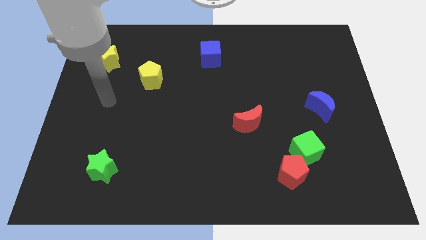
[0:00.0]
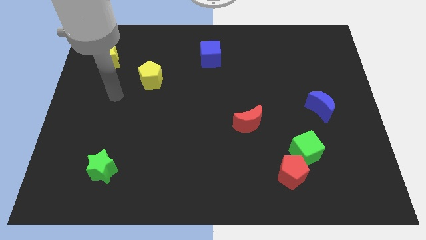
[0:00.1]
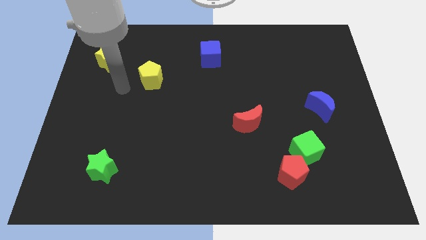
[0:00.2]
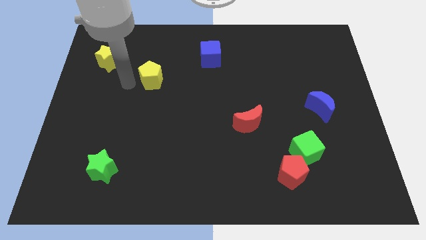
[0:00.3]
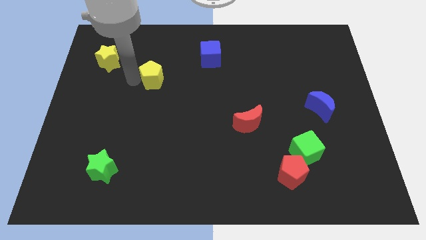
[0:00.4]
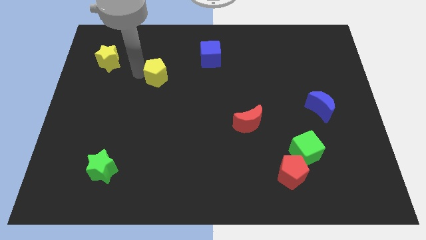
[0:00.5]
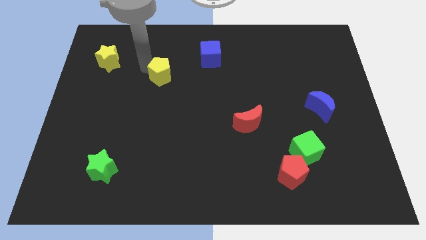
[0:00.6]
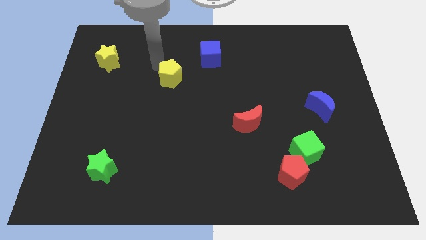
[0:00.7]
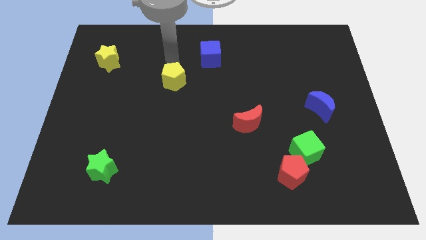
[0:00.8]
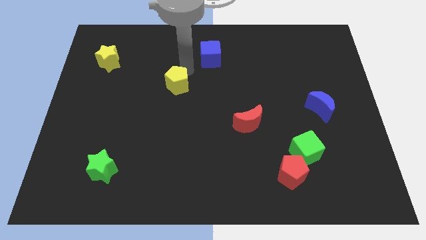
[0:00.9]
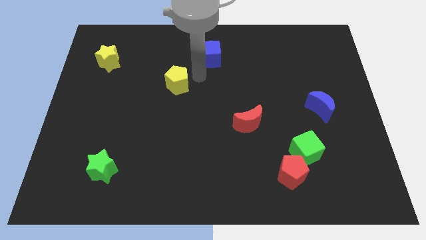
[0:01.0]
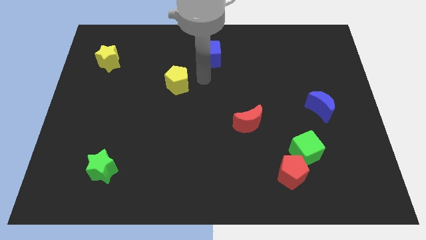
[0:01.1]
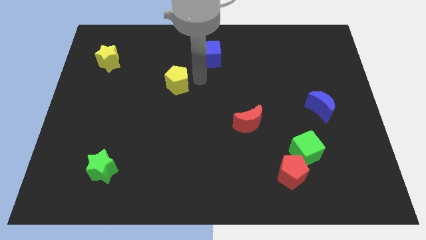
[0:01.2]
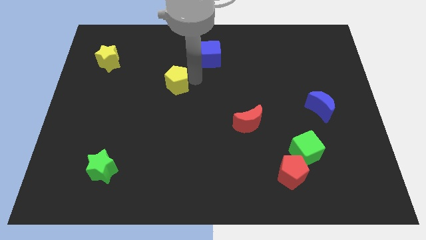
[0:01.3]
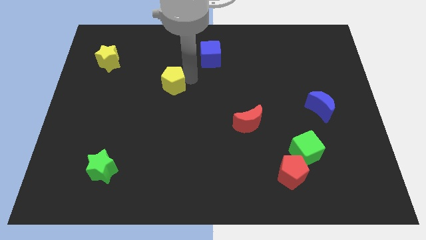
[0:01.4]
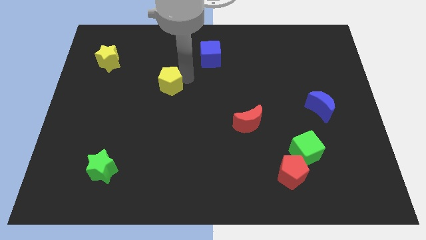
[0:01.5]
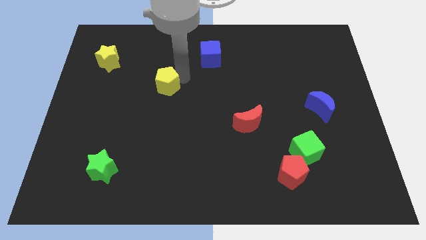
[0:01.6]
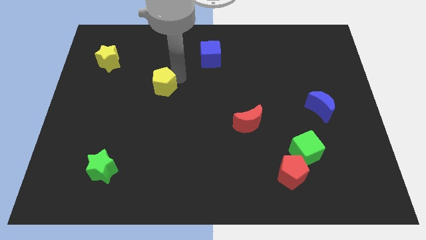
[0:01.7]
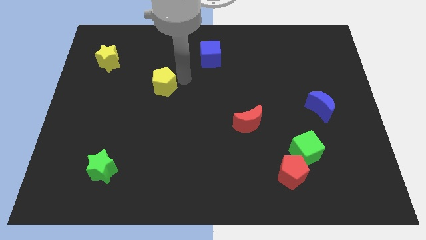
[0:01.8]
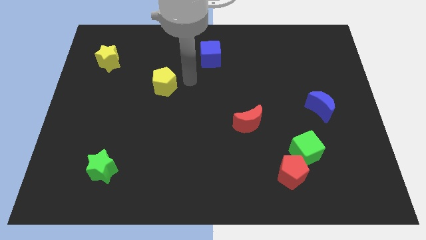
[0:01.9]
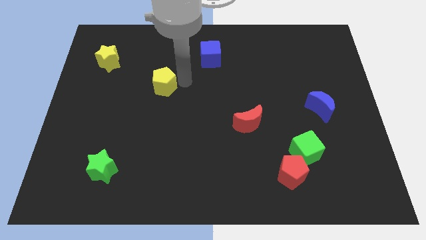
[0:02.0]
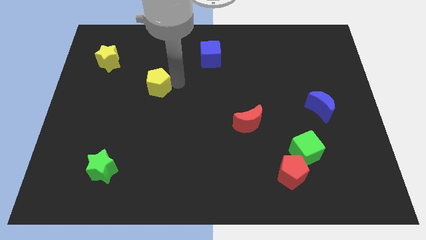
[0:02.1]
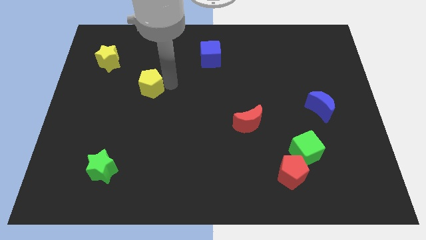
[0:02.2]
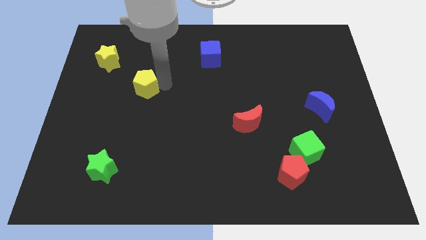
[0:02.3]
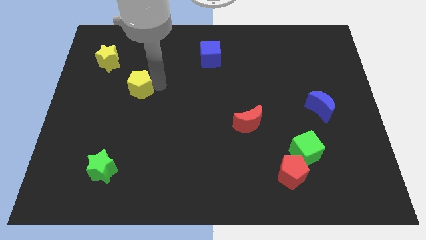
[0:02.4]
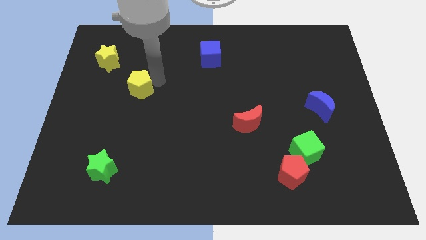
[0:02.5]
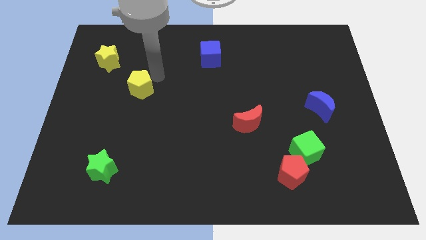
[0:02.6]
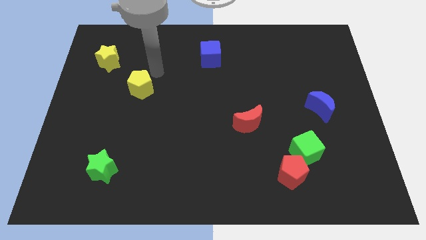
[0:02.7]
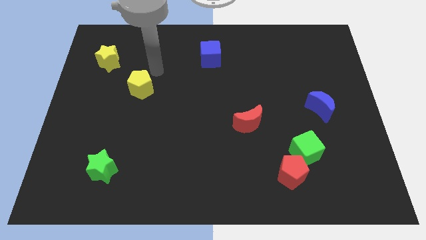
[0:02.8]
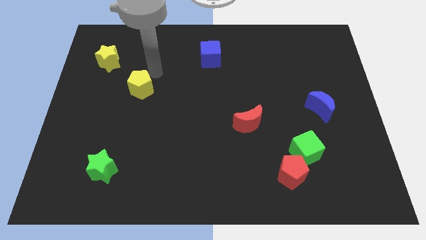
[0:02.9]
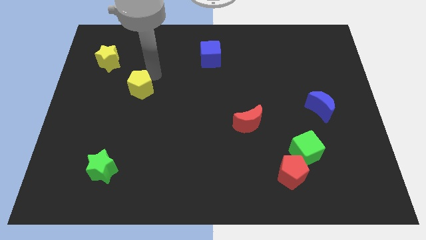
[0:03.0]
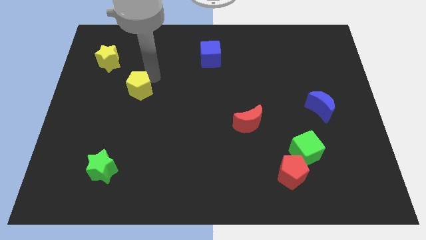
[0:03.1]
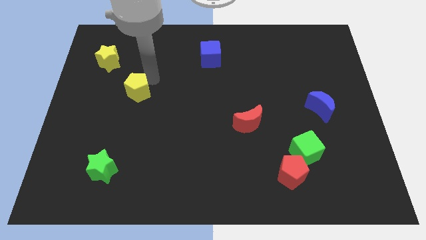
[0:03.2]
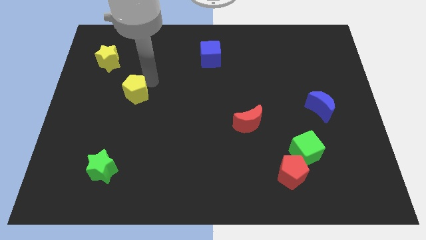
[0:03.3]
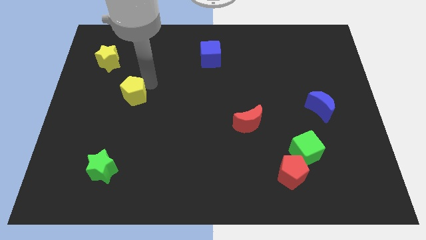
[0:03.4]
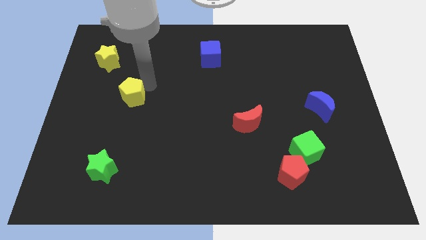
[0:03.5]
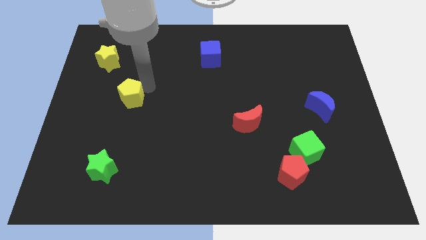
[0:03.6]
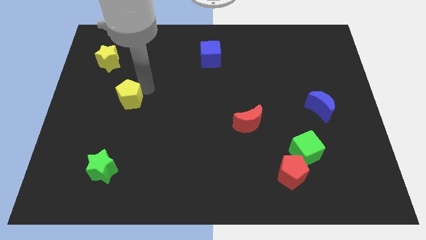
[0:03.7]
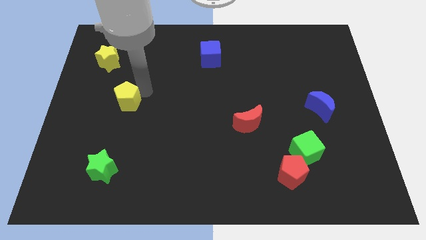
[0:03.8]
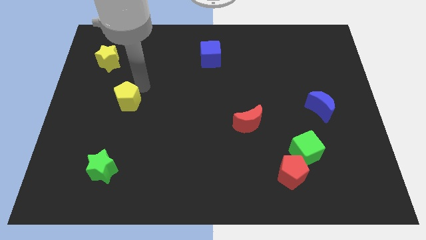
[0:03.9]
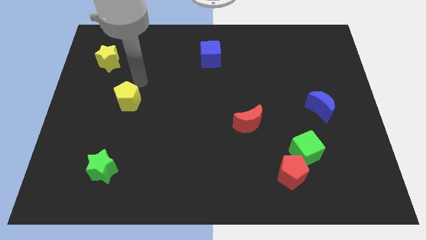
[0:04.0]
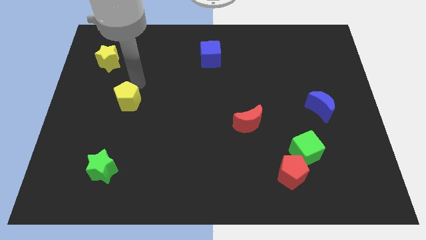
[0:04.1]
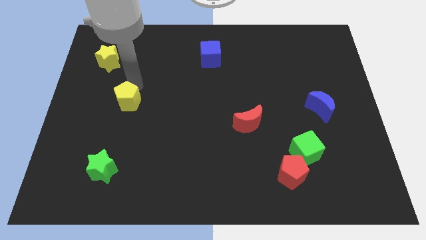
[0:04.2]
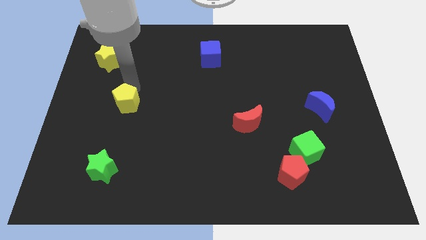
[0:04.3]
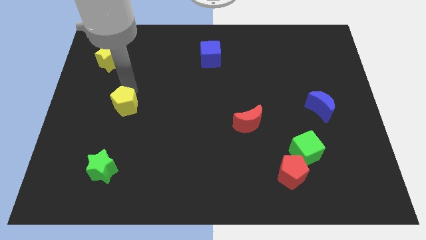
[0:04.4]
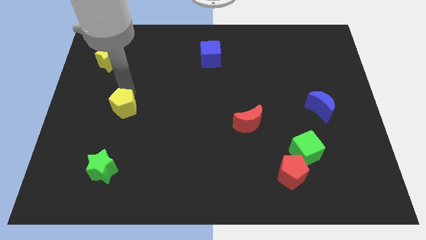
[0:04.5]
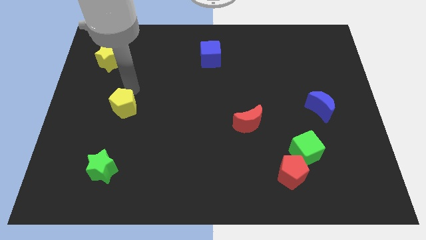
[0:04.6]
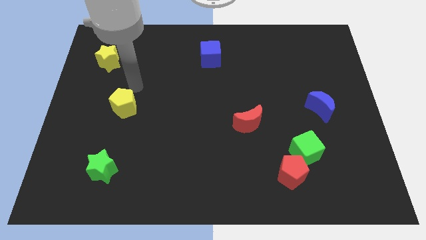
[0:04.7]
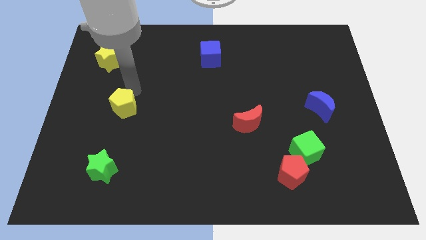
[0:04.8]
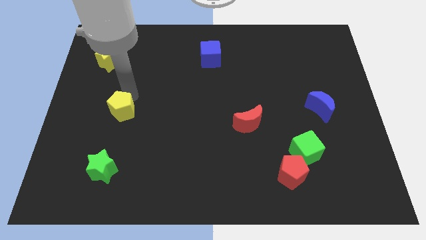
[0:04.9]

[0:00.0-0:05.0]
move the yellow pentagon to the top side of the green star

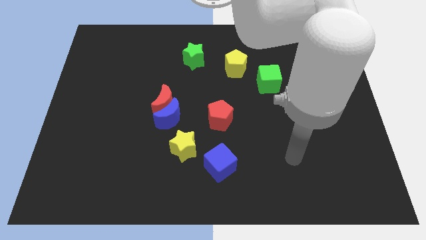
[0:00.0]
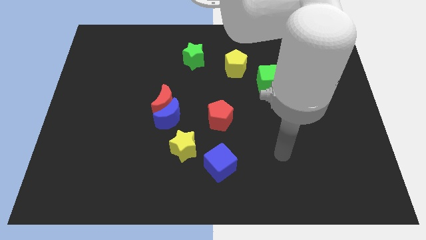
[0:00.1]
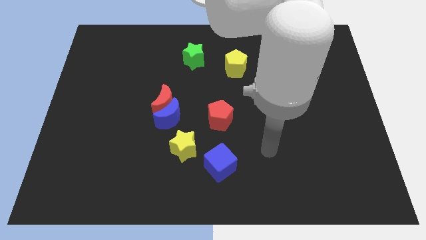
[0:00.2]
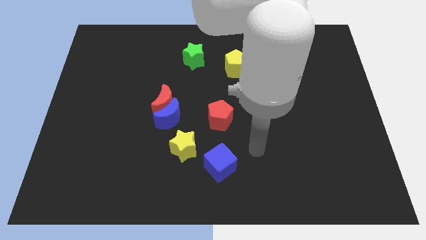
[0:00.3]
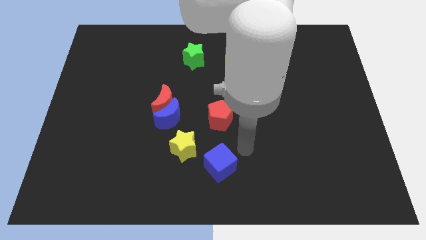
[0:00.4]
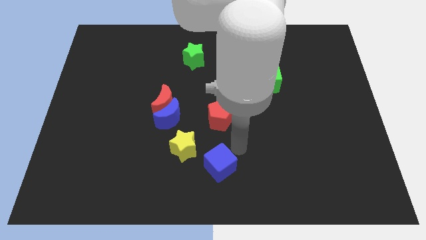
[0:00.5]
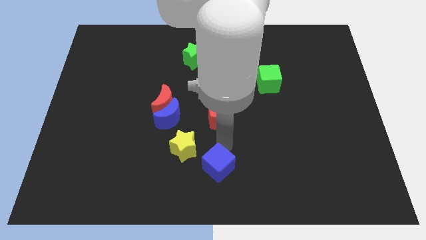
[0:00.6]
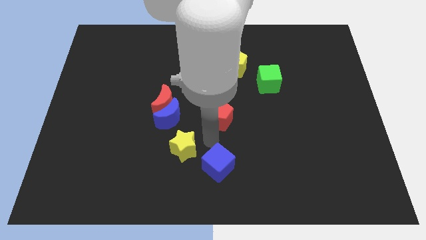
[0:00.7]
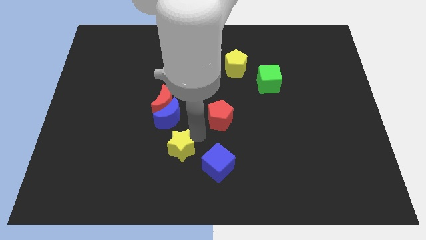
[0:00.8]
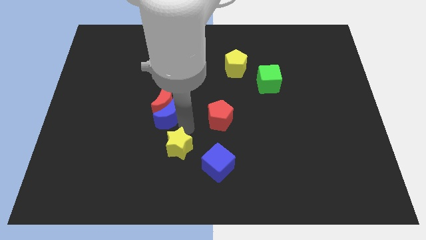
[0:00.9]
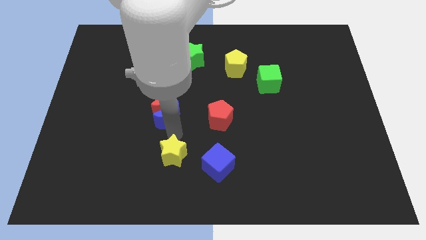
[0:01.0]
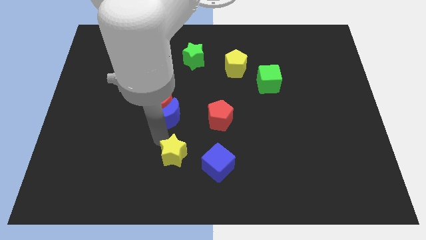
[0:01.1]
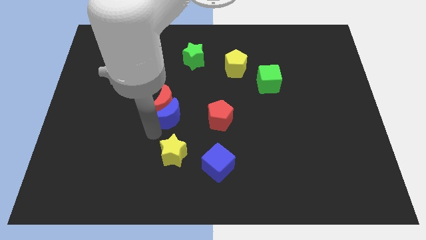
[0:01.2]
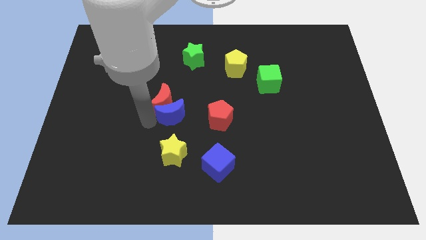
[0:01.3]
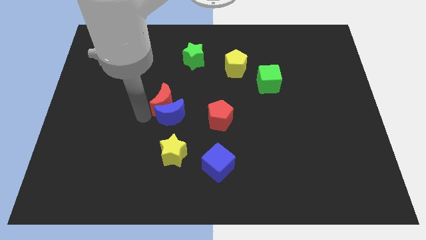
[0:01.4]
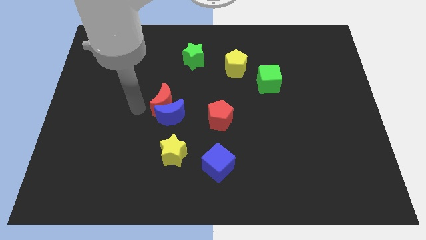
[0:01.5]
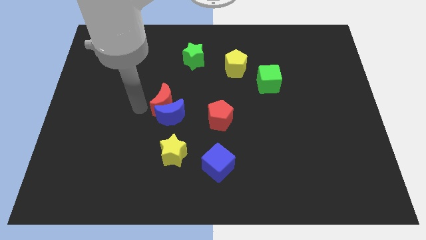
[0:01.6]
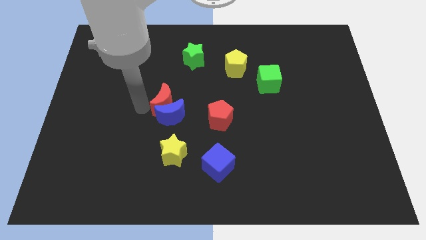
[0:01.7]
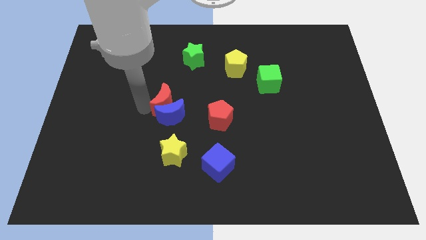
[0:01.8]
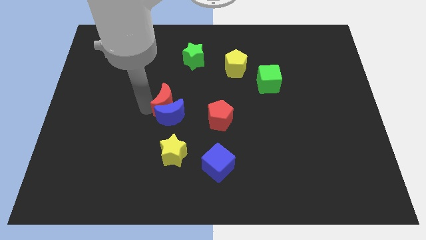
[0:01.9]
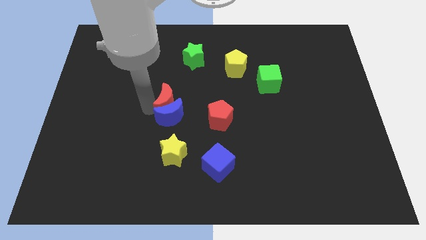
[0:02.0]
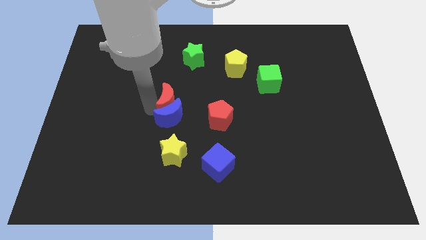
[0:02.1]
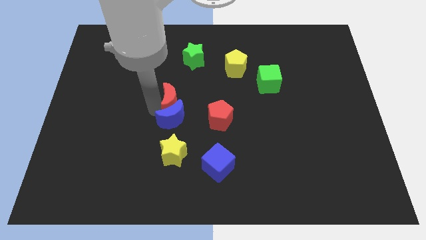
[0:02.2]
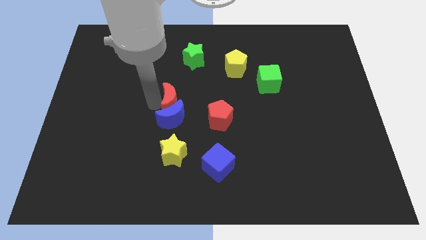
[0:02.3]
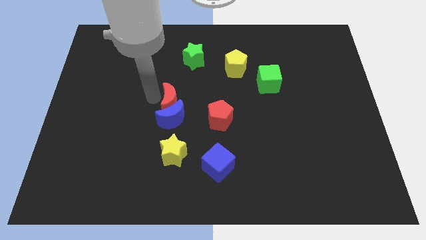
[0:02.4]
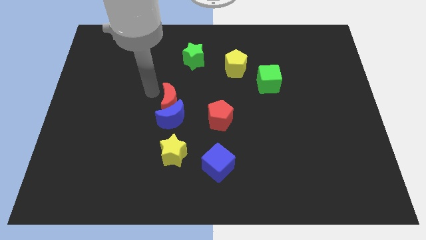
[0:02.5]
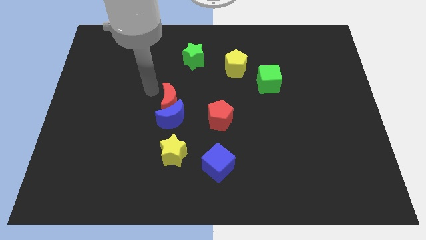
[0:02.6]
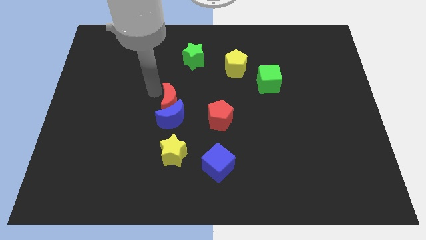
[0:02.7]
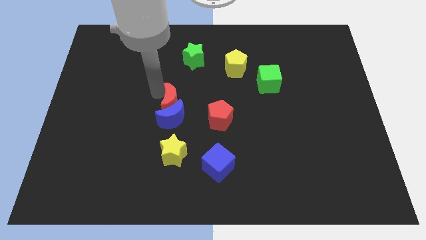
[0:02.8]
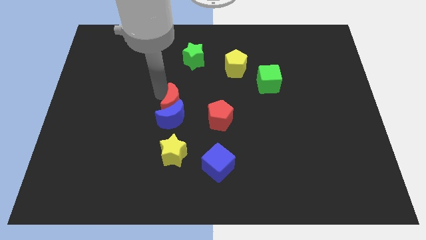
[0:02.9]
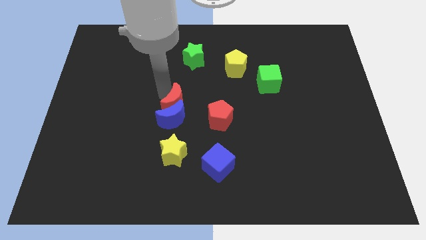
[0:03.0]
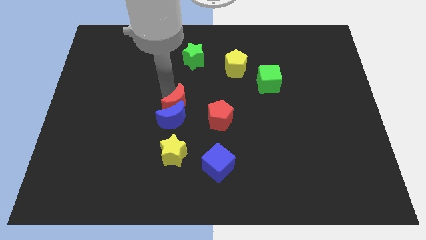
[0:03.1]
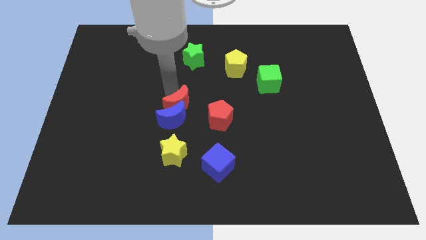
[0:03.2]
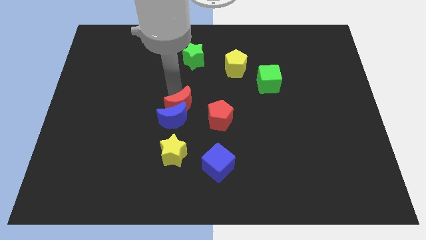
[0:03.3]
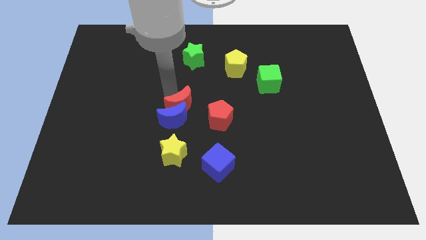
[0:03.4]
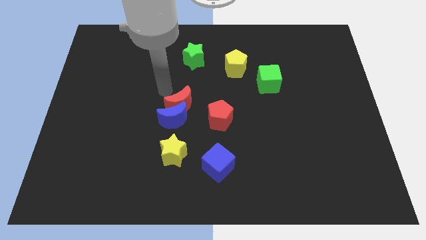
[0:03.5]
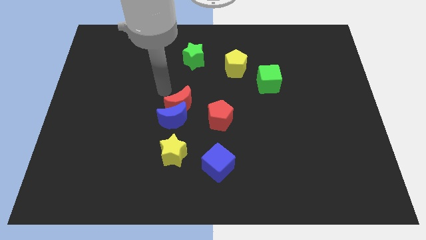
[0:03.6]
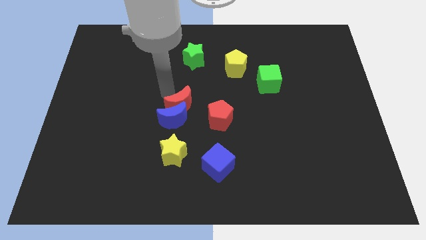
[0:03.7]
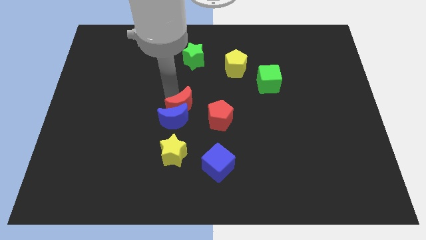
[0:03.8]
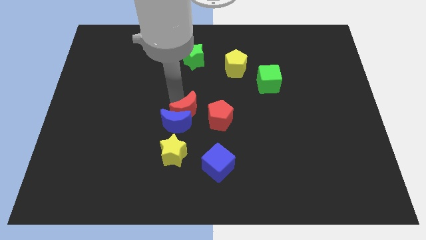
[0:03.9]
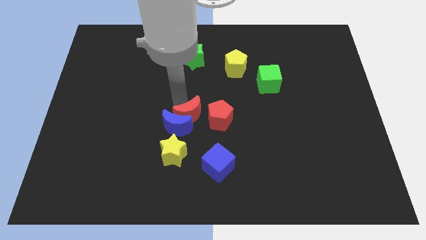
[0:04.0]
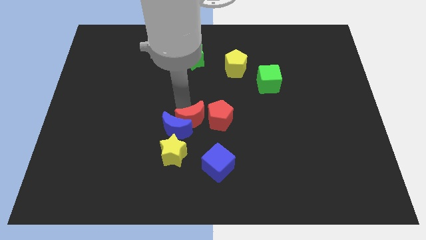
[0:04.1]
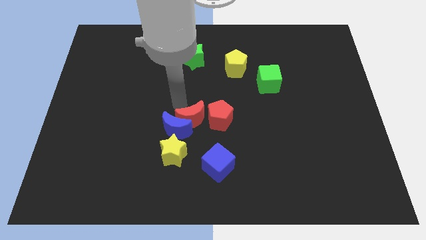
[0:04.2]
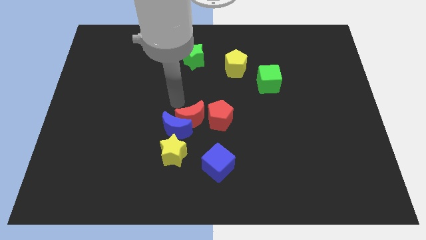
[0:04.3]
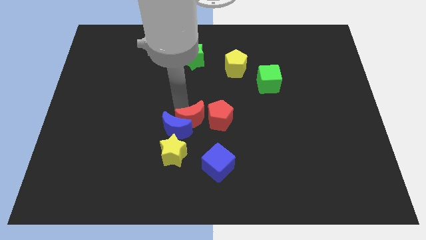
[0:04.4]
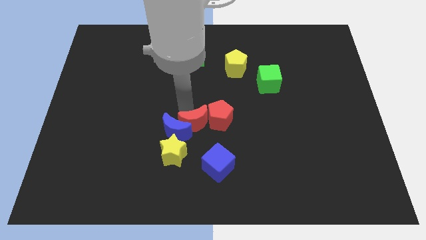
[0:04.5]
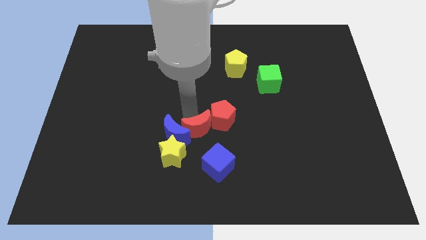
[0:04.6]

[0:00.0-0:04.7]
slide the red moon to the bottom right of the blue moon
